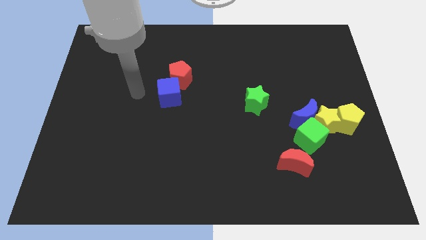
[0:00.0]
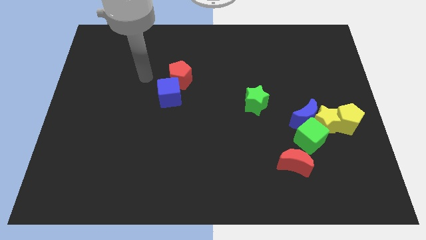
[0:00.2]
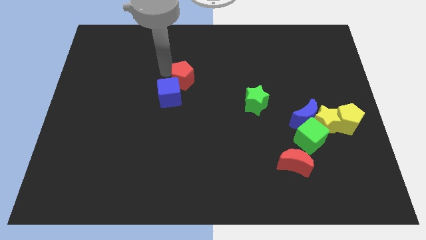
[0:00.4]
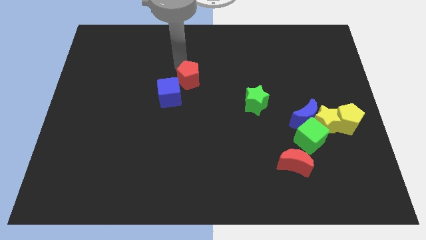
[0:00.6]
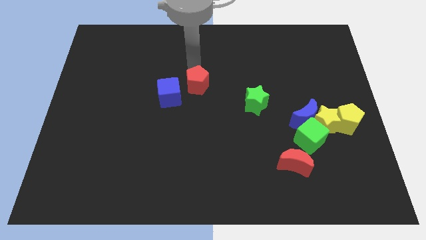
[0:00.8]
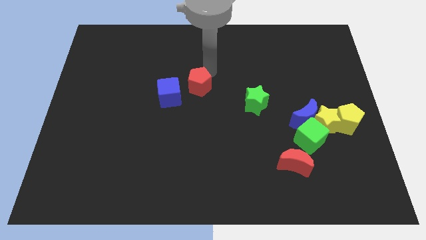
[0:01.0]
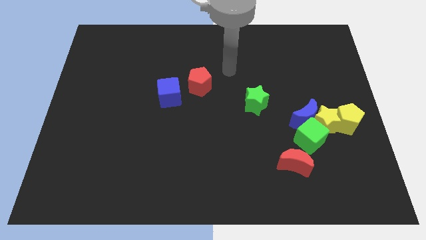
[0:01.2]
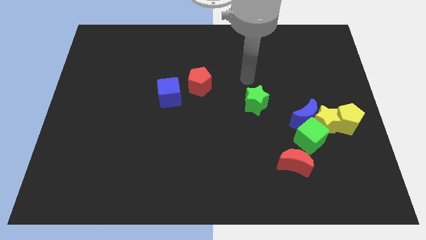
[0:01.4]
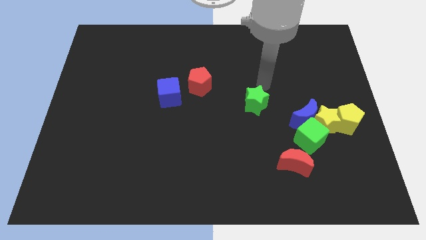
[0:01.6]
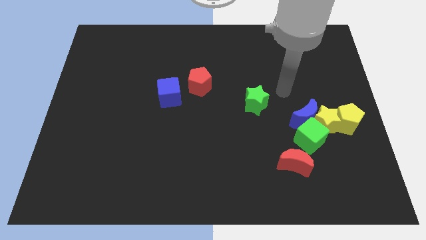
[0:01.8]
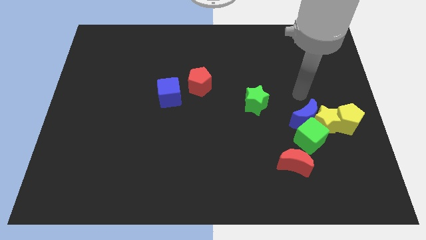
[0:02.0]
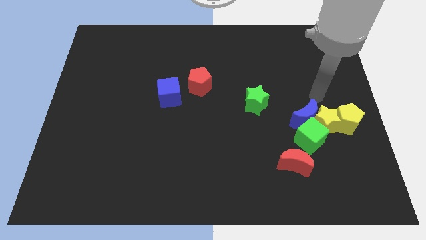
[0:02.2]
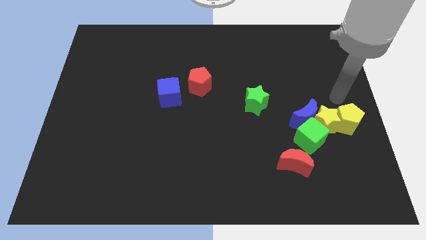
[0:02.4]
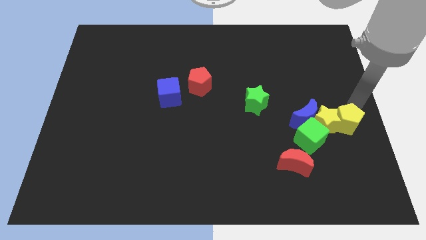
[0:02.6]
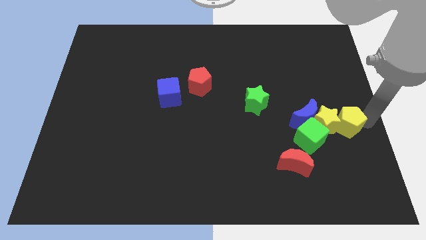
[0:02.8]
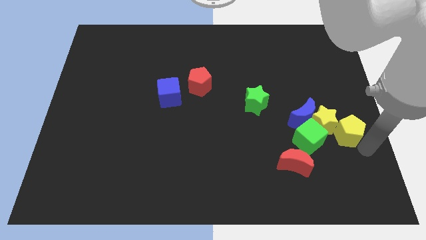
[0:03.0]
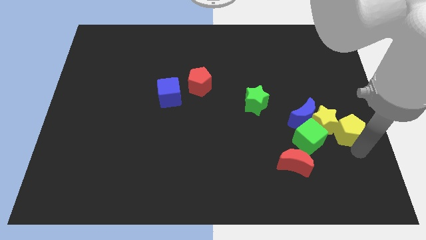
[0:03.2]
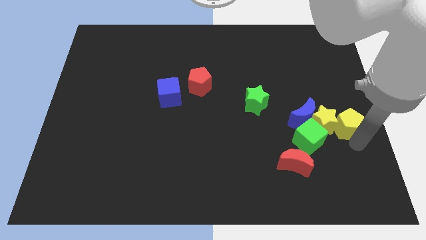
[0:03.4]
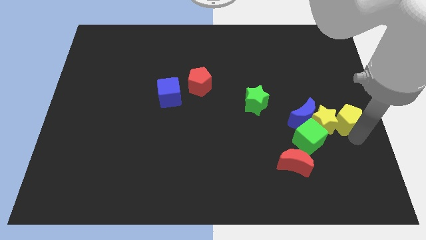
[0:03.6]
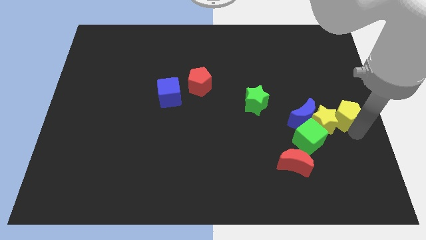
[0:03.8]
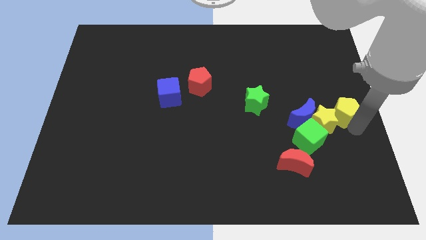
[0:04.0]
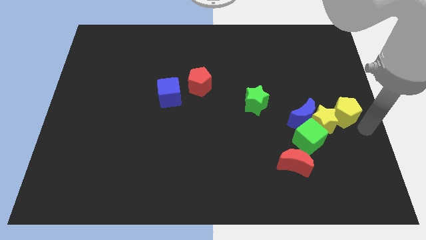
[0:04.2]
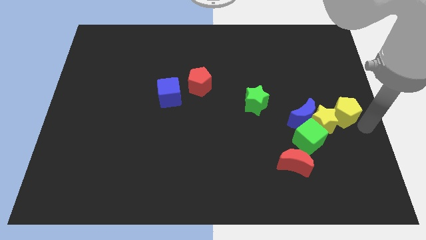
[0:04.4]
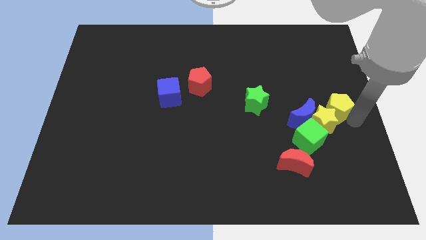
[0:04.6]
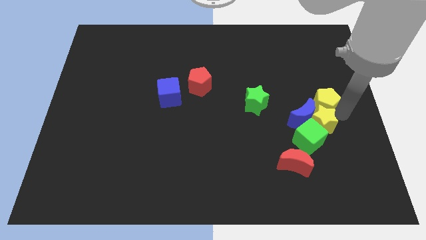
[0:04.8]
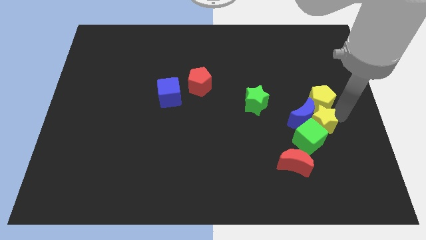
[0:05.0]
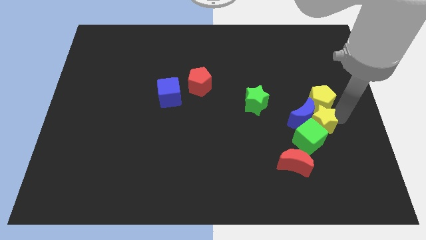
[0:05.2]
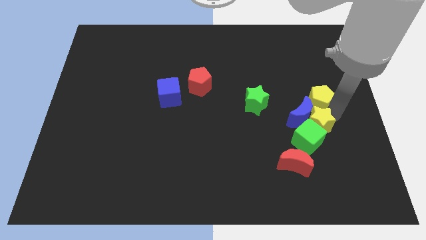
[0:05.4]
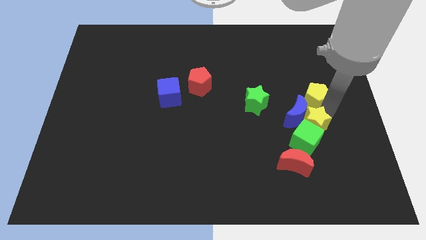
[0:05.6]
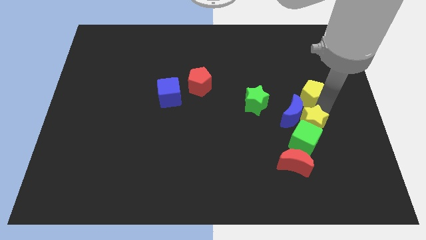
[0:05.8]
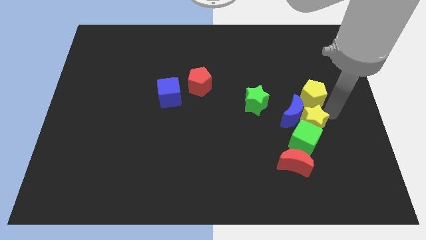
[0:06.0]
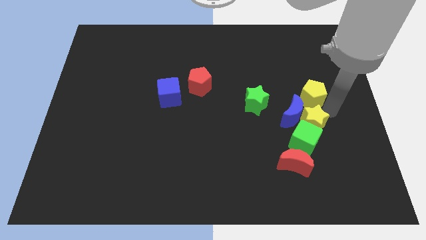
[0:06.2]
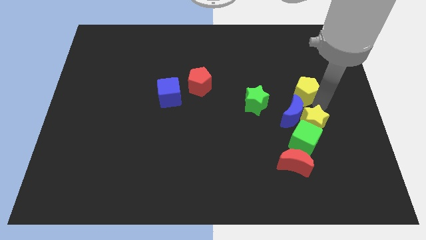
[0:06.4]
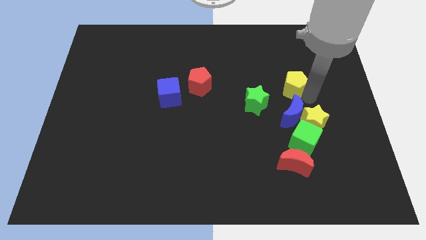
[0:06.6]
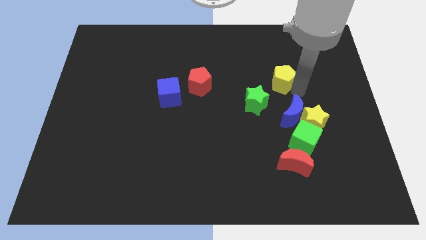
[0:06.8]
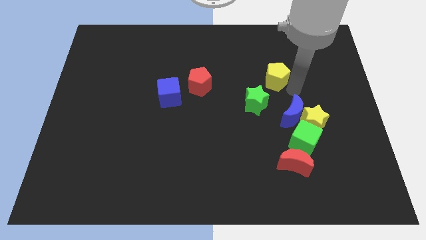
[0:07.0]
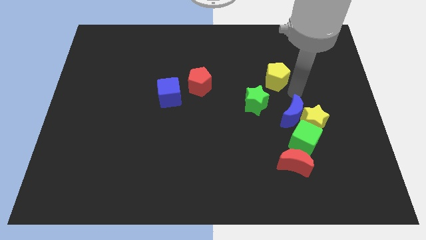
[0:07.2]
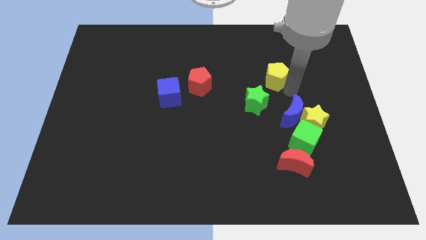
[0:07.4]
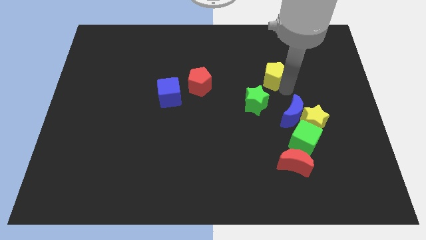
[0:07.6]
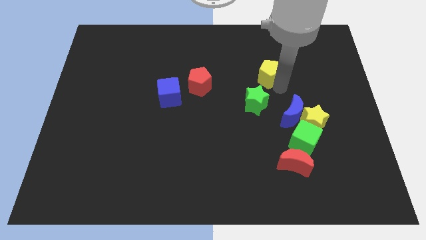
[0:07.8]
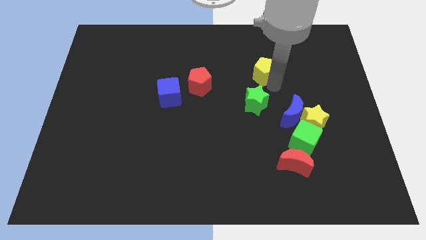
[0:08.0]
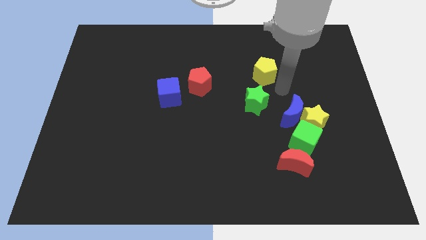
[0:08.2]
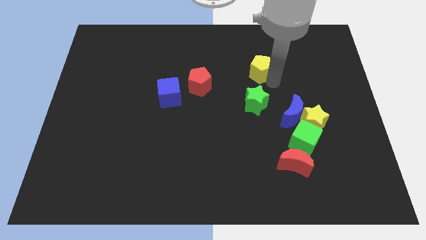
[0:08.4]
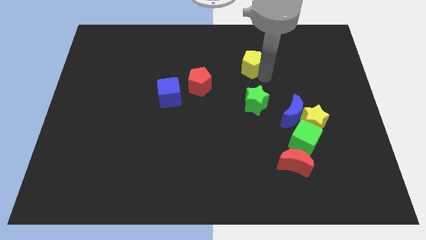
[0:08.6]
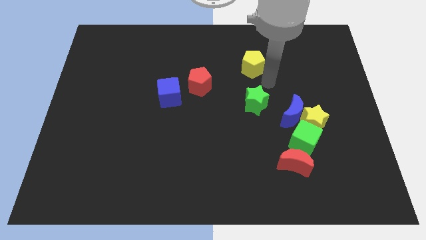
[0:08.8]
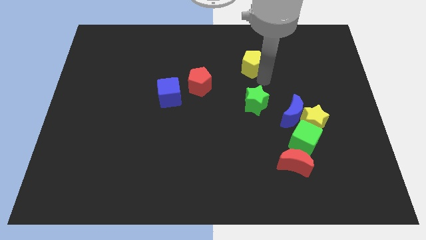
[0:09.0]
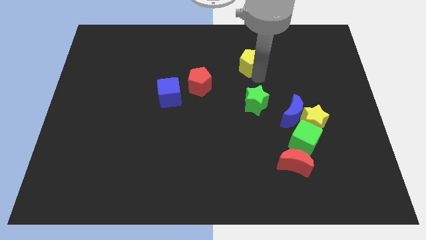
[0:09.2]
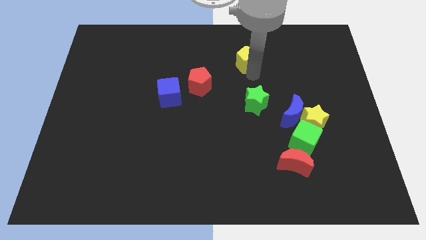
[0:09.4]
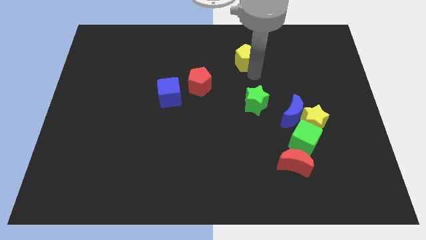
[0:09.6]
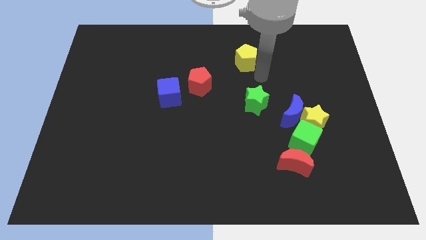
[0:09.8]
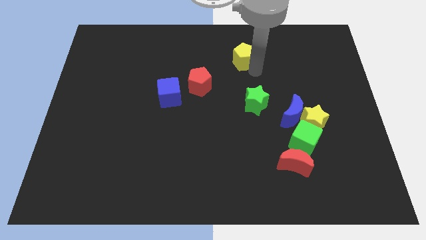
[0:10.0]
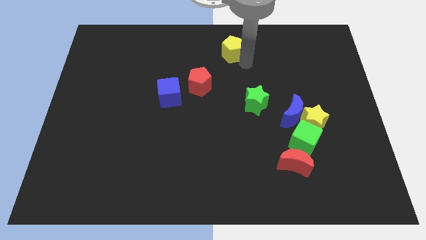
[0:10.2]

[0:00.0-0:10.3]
put the yellow pentagon to the top

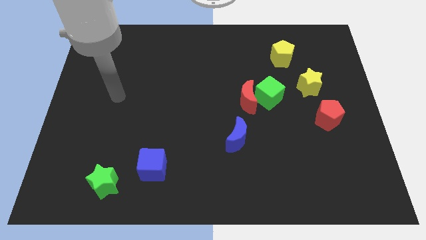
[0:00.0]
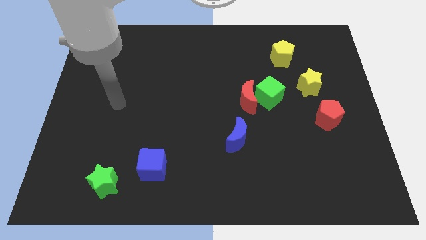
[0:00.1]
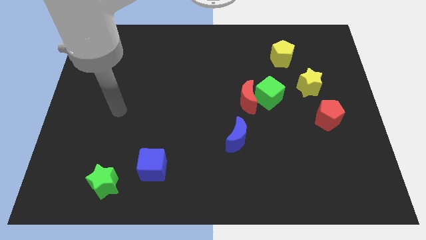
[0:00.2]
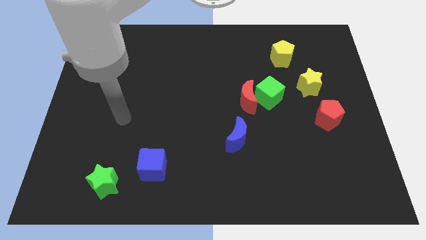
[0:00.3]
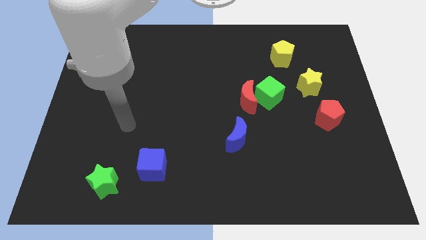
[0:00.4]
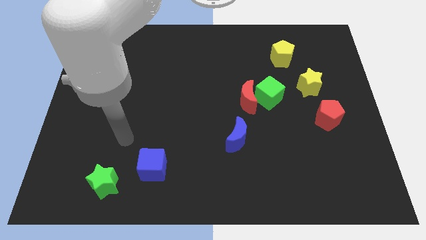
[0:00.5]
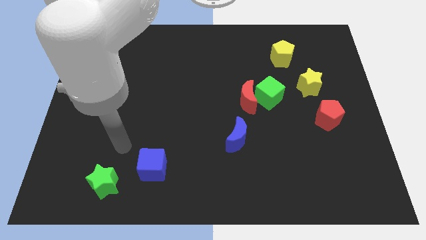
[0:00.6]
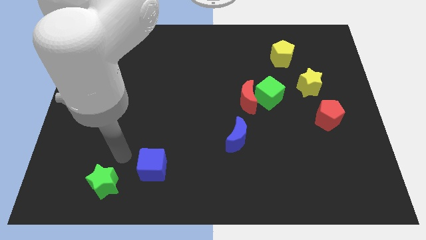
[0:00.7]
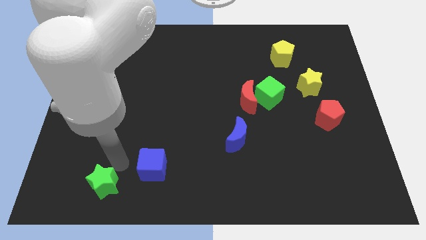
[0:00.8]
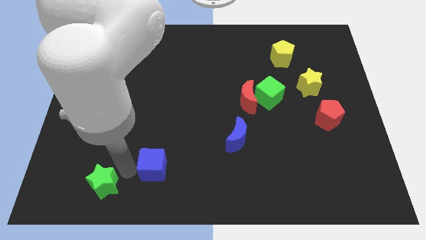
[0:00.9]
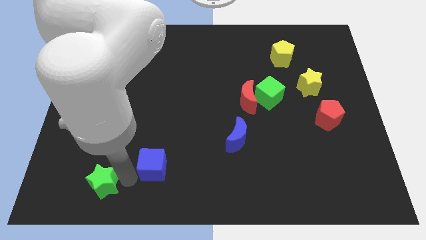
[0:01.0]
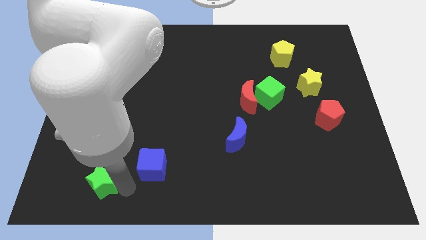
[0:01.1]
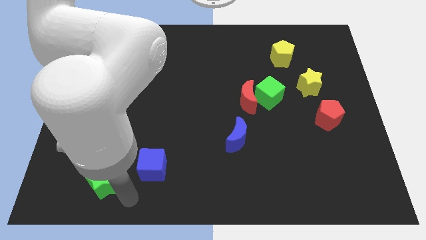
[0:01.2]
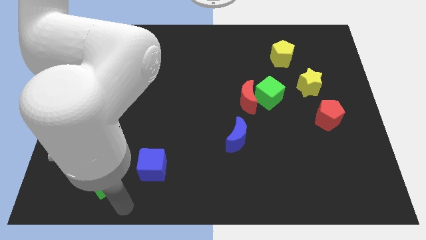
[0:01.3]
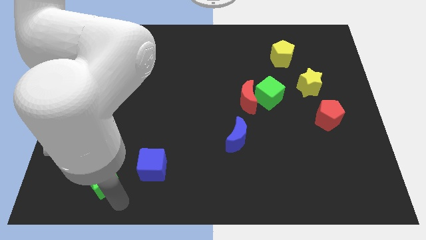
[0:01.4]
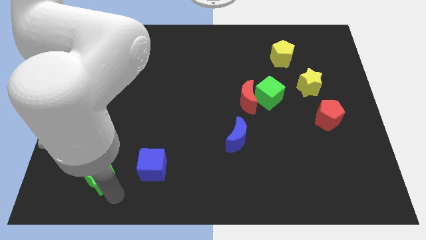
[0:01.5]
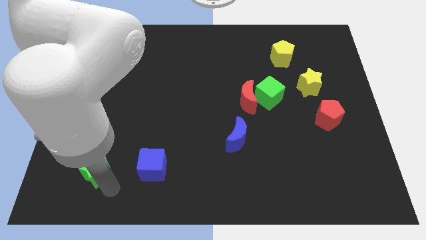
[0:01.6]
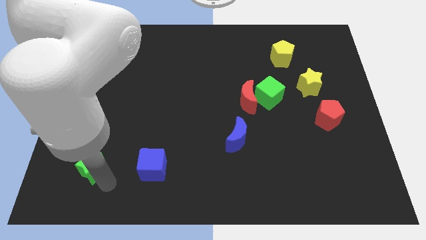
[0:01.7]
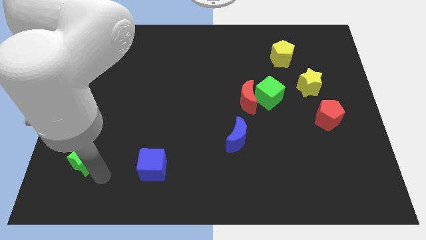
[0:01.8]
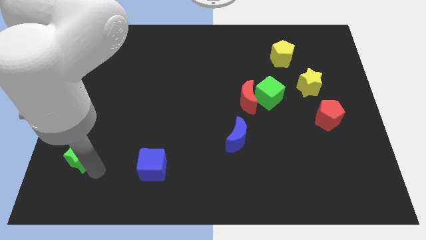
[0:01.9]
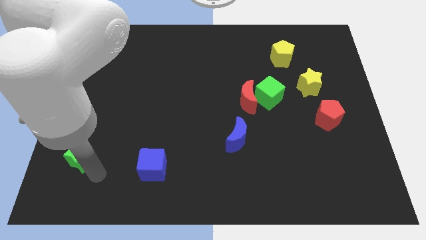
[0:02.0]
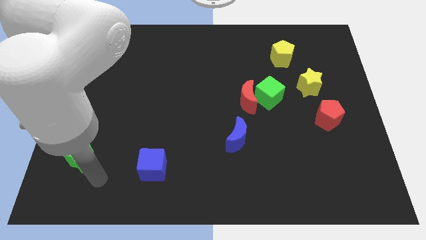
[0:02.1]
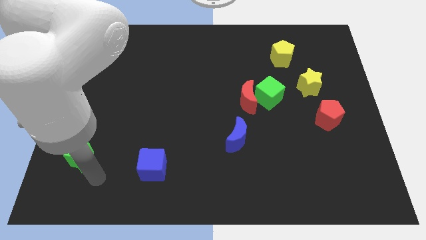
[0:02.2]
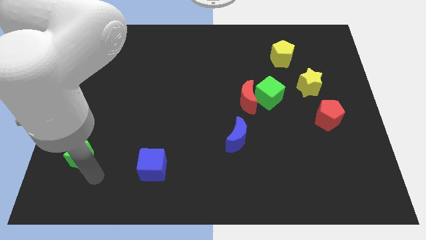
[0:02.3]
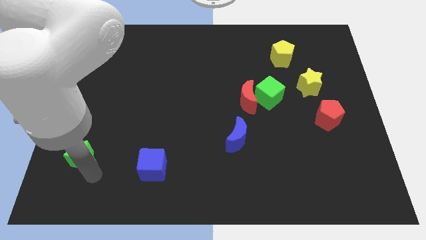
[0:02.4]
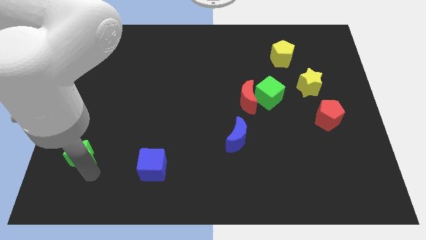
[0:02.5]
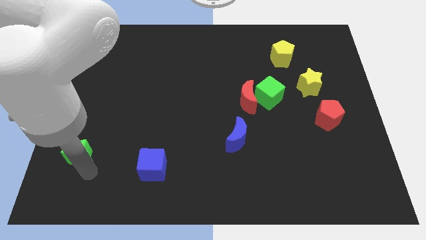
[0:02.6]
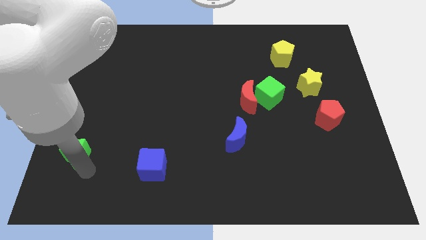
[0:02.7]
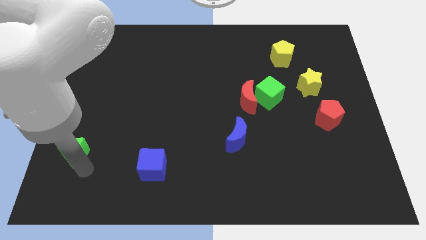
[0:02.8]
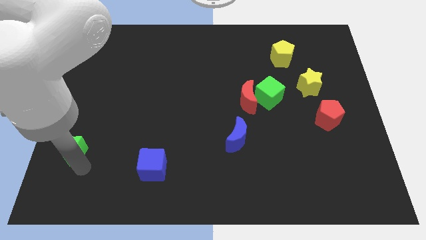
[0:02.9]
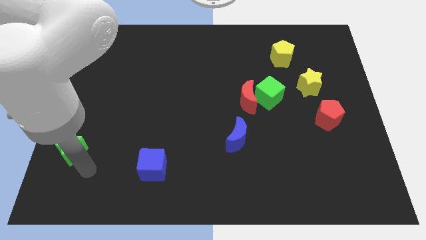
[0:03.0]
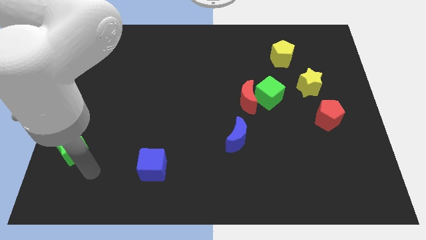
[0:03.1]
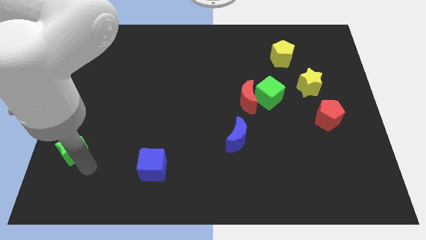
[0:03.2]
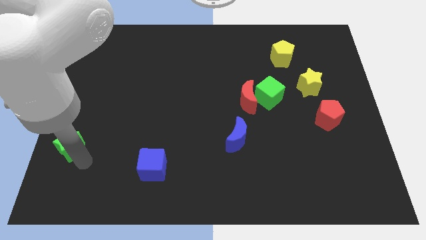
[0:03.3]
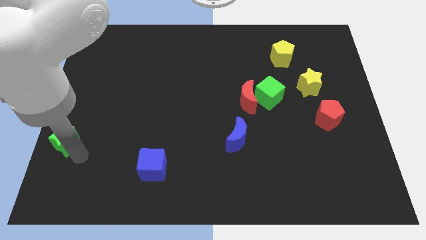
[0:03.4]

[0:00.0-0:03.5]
put the green star to the left side of the board
